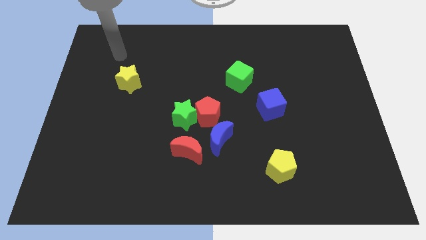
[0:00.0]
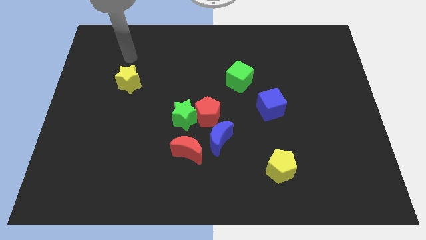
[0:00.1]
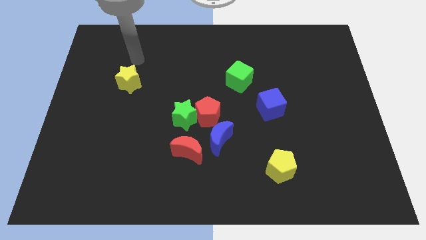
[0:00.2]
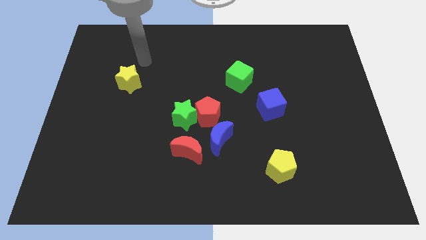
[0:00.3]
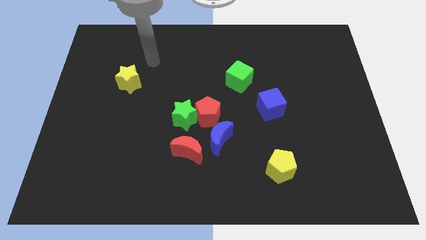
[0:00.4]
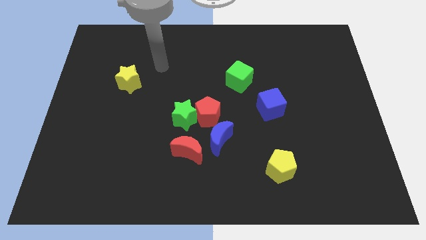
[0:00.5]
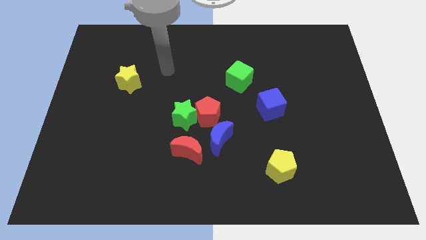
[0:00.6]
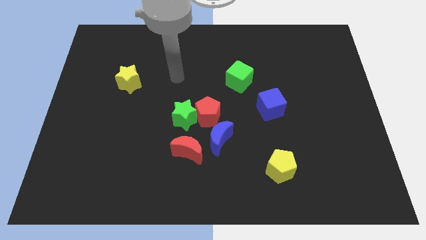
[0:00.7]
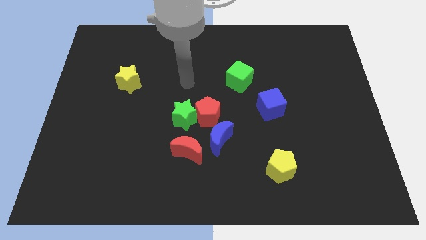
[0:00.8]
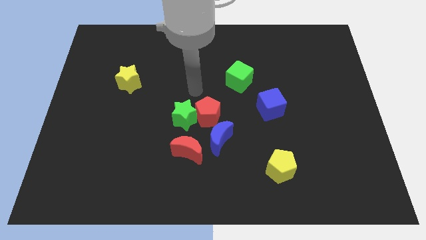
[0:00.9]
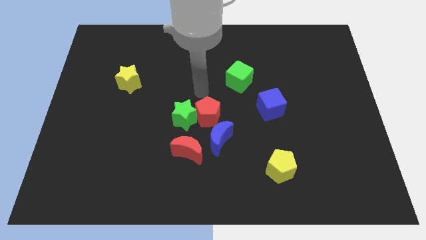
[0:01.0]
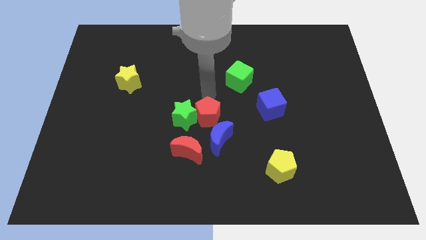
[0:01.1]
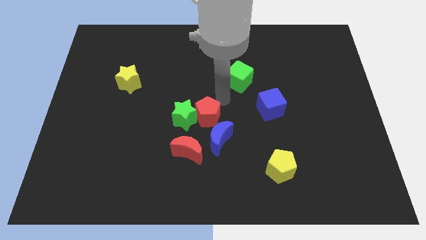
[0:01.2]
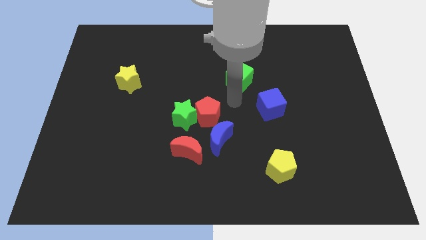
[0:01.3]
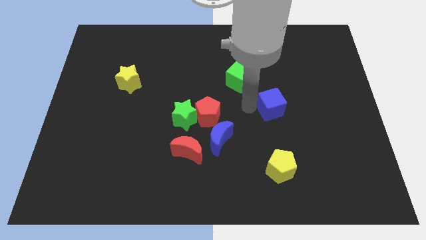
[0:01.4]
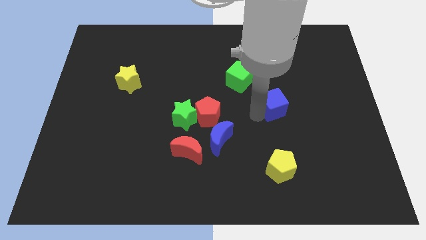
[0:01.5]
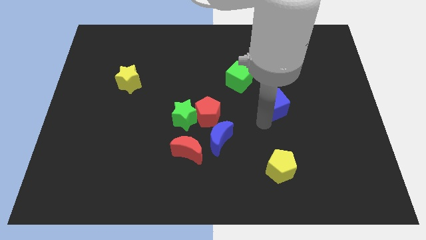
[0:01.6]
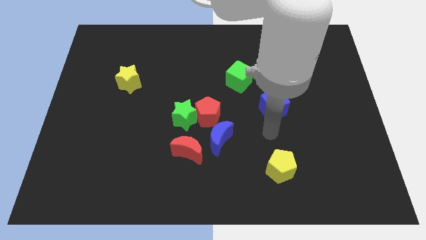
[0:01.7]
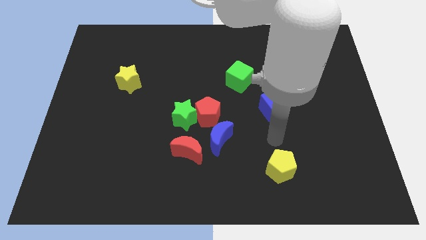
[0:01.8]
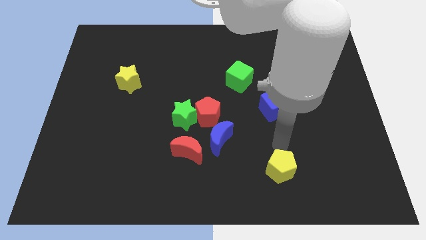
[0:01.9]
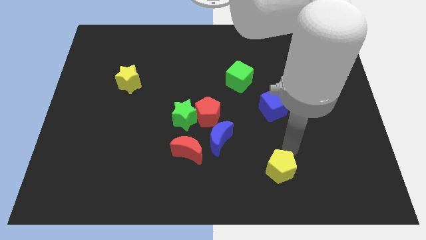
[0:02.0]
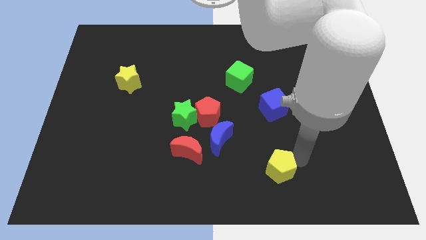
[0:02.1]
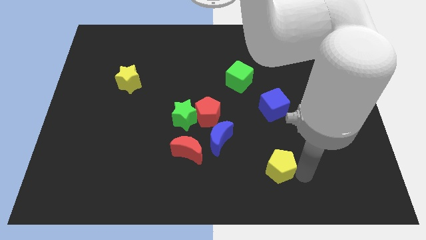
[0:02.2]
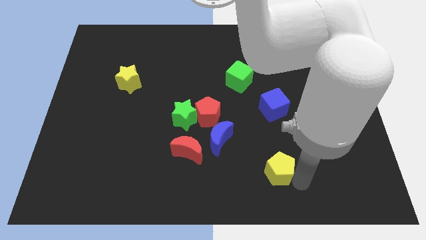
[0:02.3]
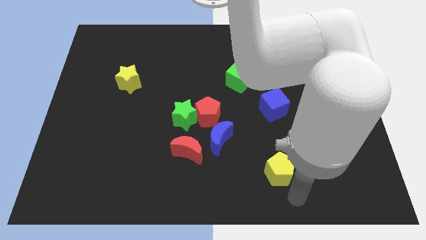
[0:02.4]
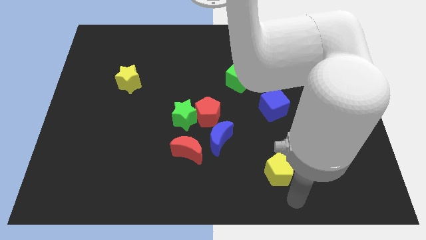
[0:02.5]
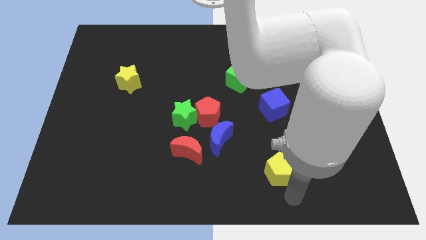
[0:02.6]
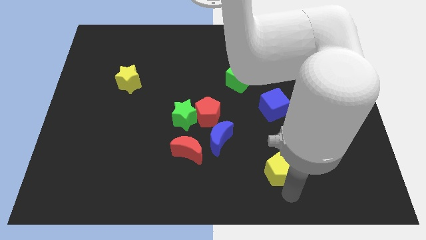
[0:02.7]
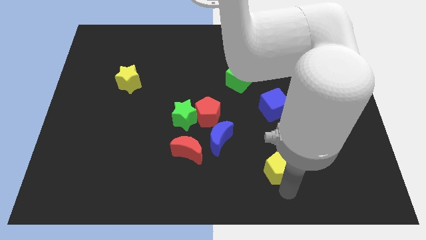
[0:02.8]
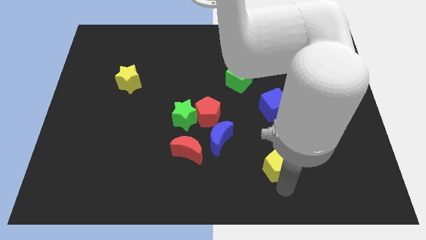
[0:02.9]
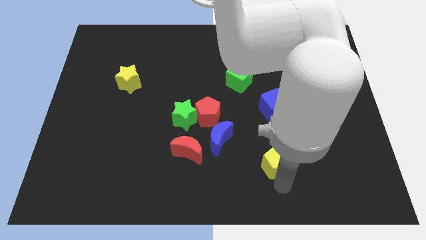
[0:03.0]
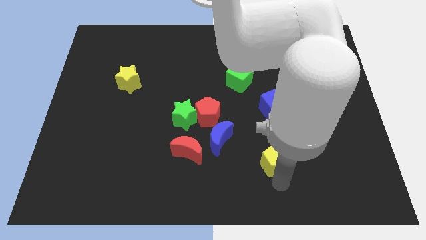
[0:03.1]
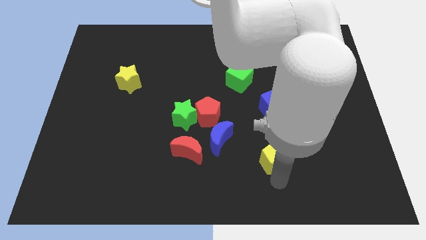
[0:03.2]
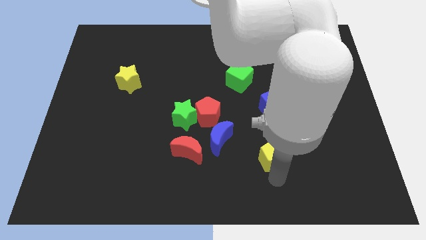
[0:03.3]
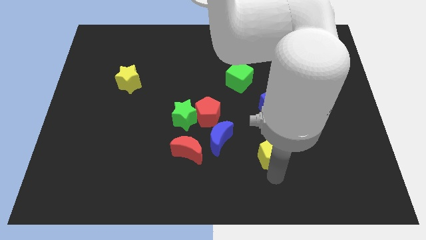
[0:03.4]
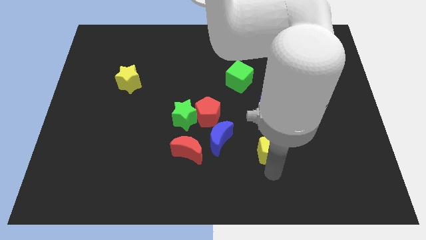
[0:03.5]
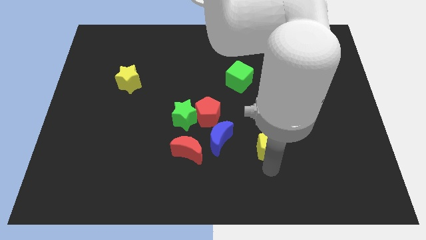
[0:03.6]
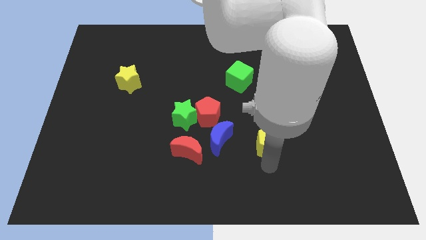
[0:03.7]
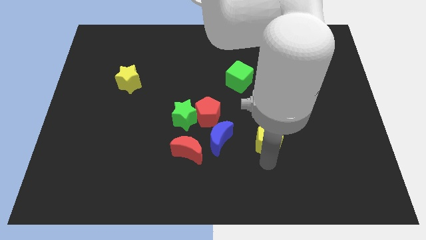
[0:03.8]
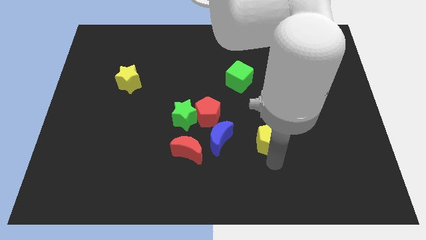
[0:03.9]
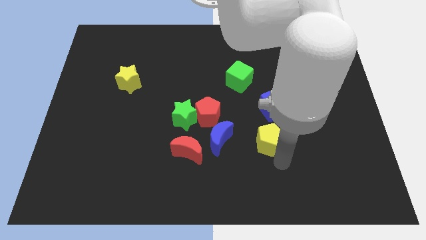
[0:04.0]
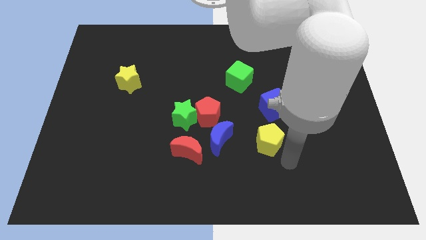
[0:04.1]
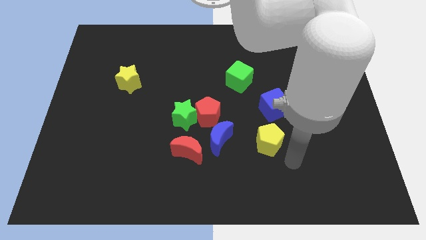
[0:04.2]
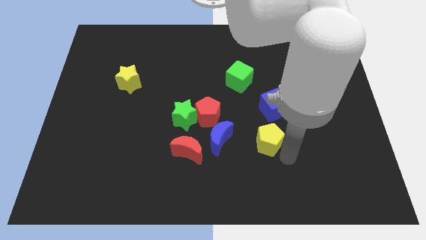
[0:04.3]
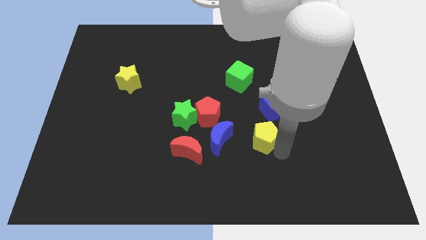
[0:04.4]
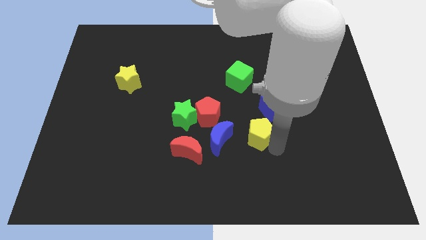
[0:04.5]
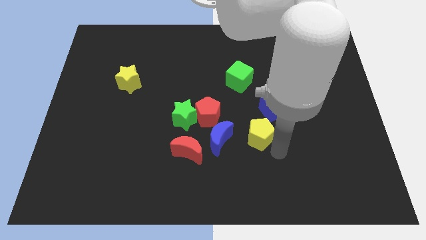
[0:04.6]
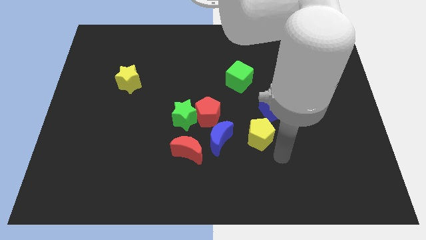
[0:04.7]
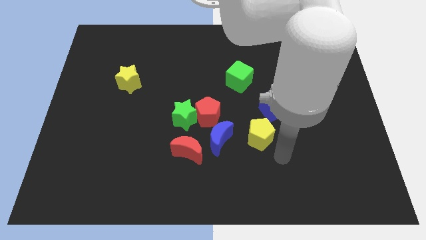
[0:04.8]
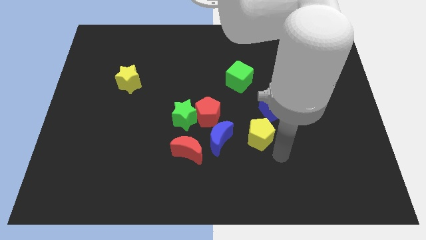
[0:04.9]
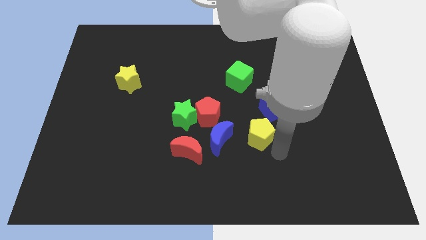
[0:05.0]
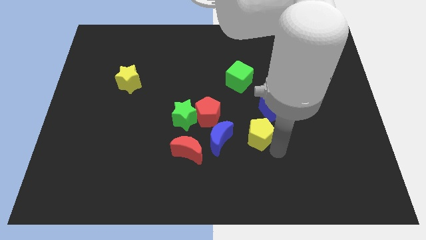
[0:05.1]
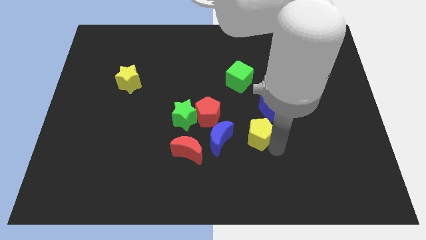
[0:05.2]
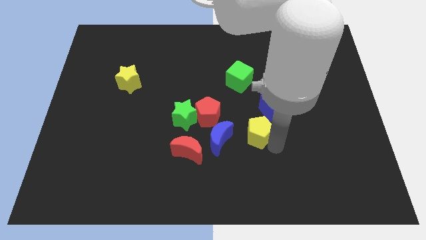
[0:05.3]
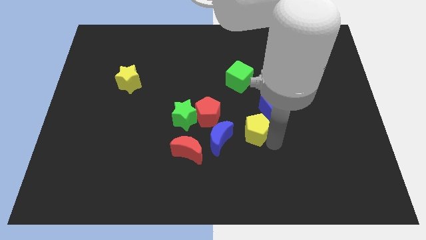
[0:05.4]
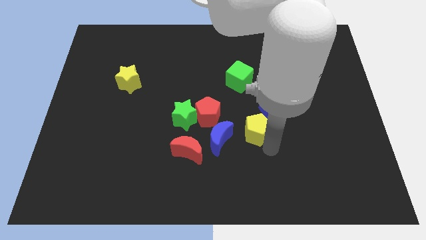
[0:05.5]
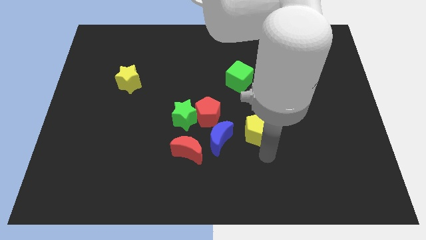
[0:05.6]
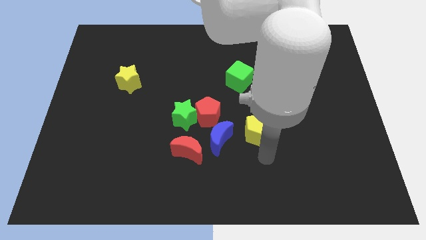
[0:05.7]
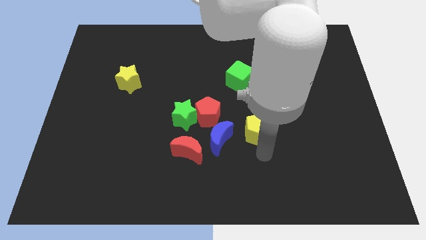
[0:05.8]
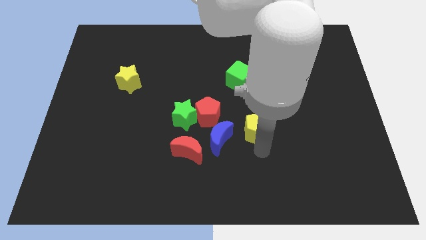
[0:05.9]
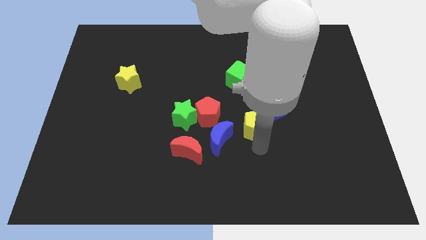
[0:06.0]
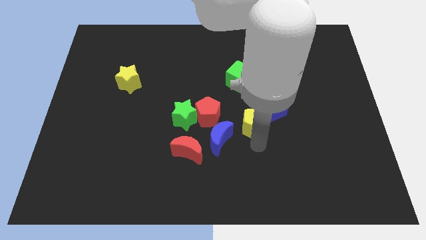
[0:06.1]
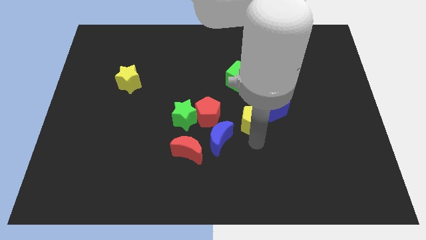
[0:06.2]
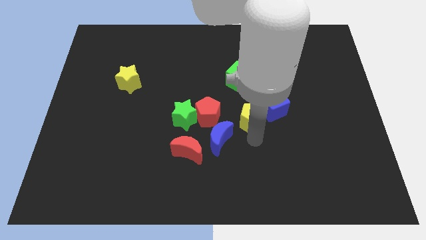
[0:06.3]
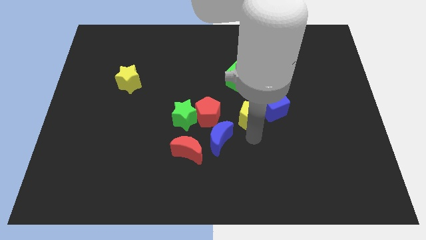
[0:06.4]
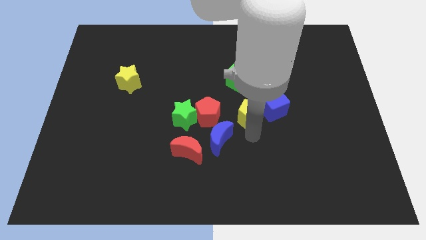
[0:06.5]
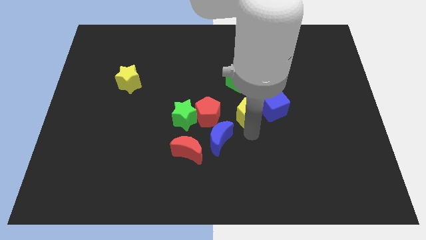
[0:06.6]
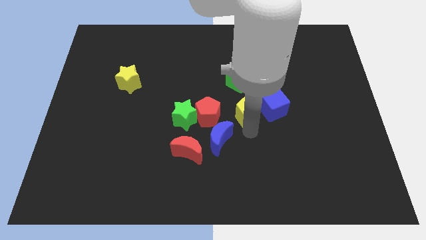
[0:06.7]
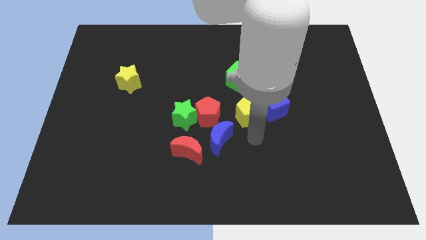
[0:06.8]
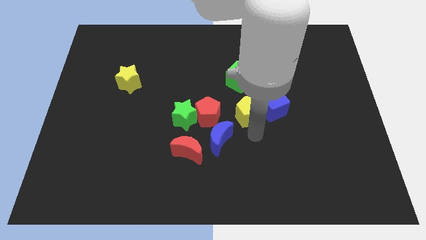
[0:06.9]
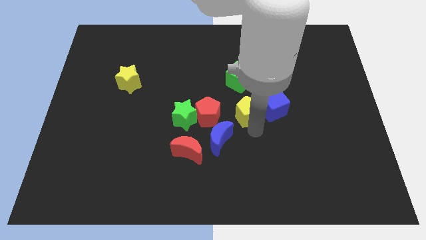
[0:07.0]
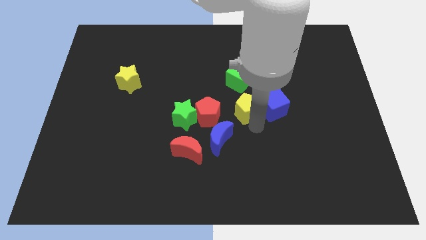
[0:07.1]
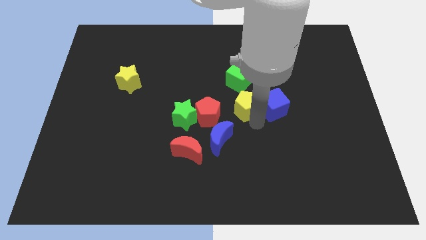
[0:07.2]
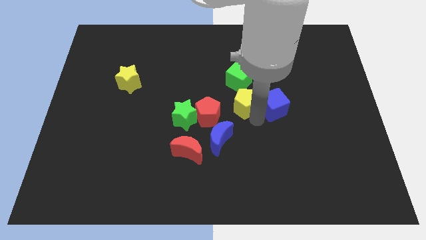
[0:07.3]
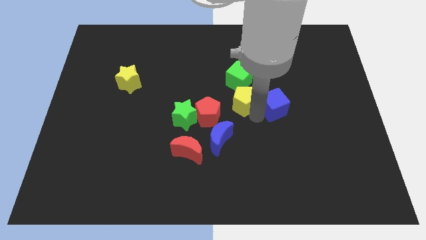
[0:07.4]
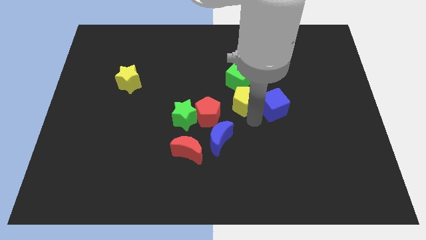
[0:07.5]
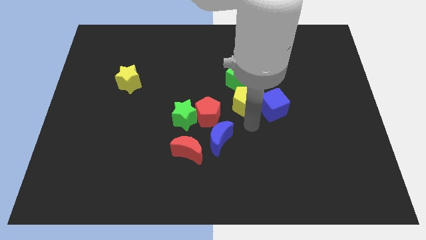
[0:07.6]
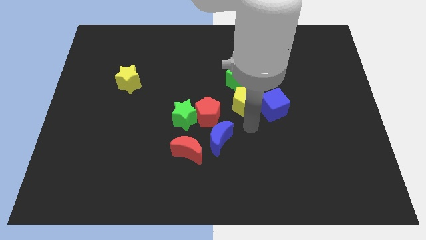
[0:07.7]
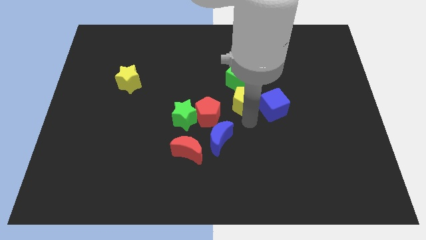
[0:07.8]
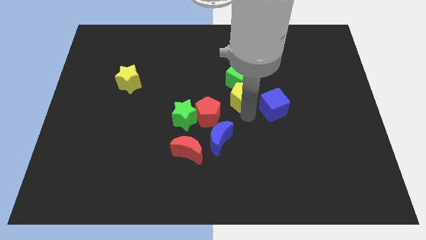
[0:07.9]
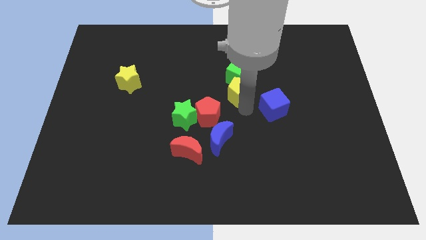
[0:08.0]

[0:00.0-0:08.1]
move the yellow pentagon next to the green cube
